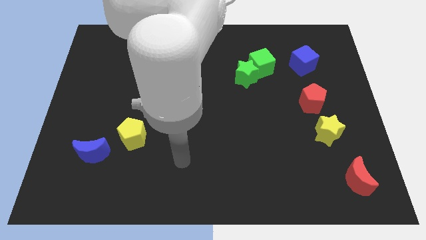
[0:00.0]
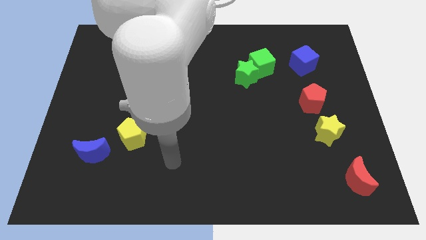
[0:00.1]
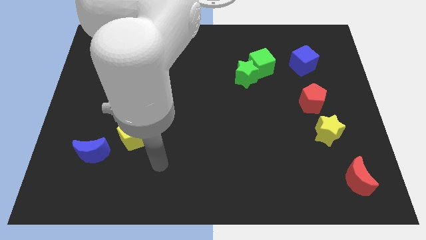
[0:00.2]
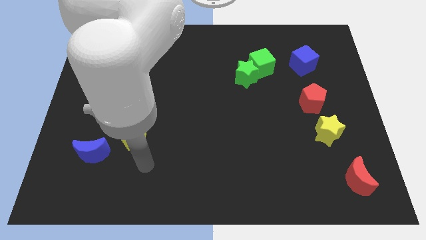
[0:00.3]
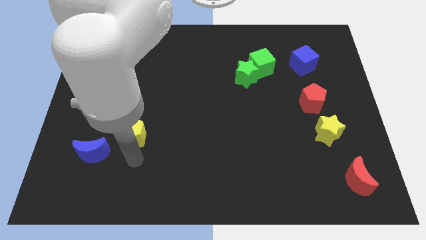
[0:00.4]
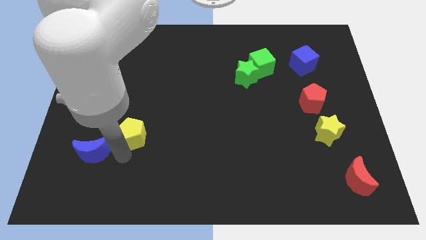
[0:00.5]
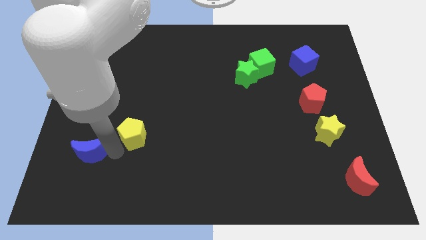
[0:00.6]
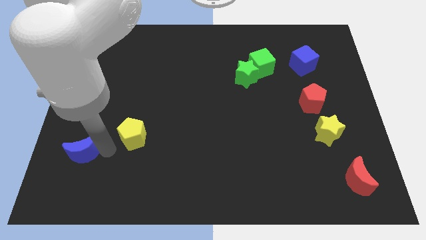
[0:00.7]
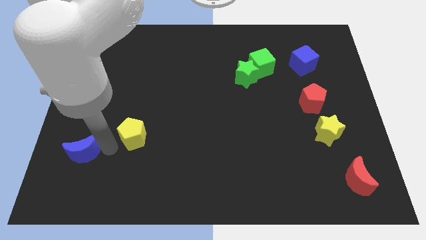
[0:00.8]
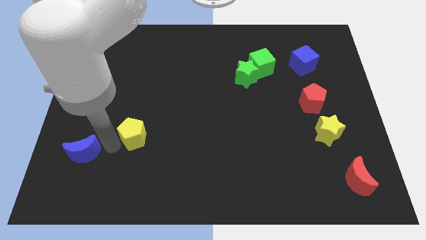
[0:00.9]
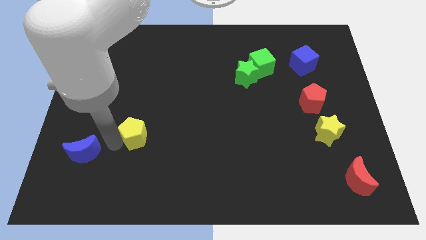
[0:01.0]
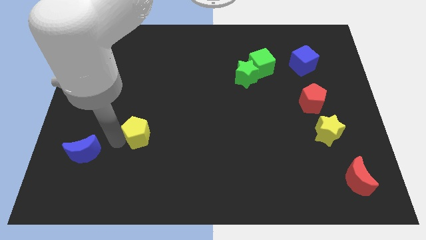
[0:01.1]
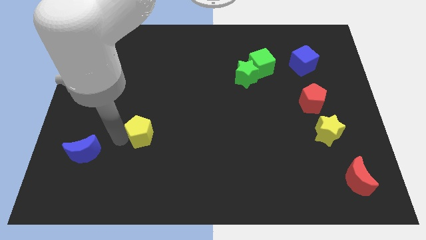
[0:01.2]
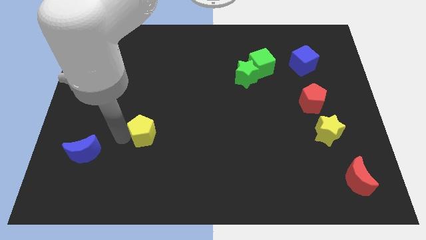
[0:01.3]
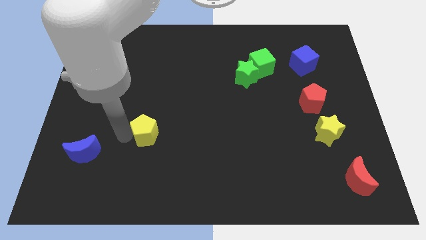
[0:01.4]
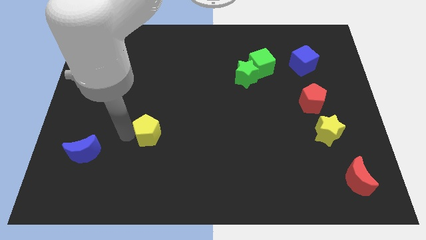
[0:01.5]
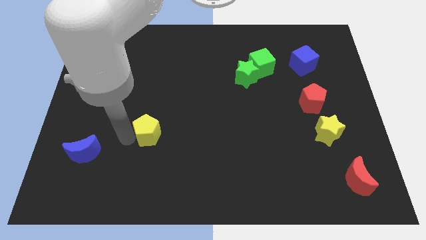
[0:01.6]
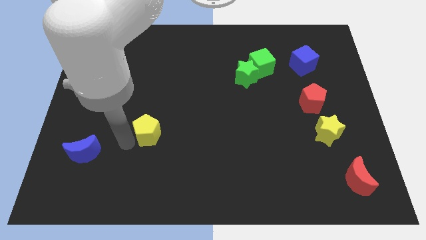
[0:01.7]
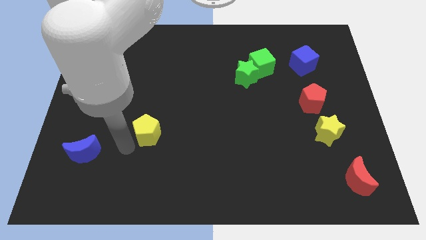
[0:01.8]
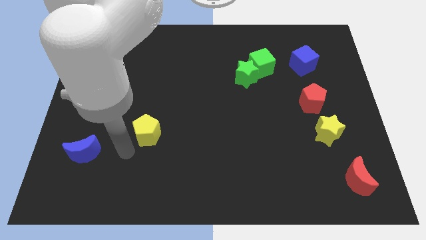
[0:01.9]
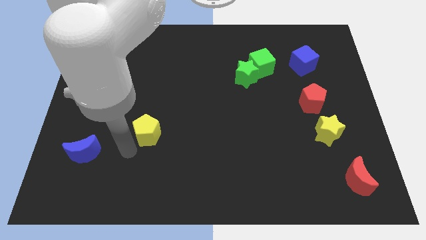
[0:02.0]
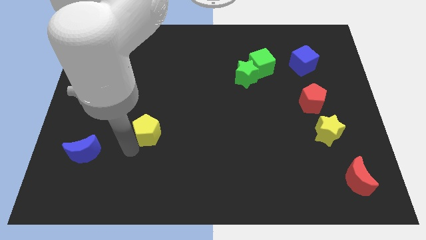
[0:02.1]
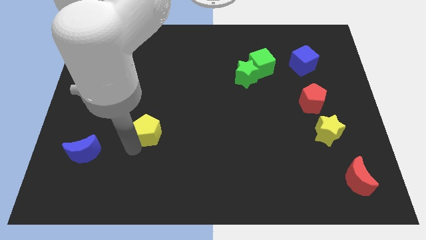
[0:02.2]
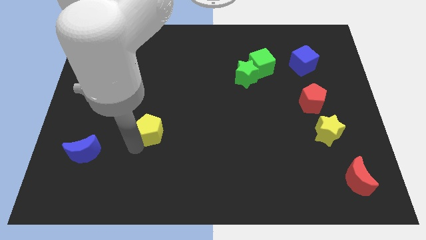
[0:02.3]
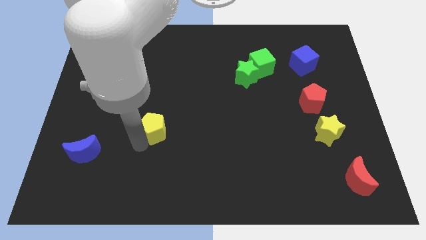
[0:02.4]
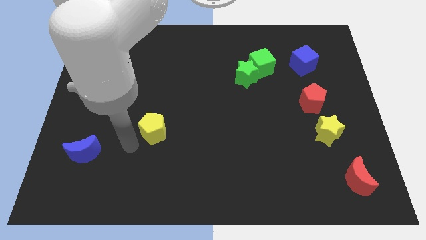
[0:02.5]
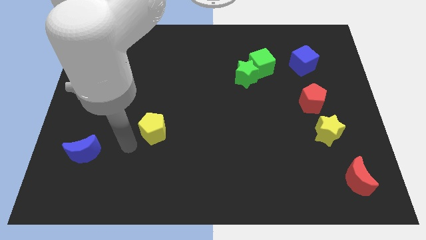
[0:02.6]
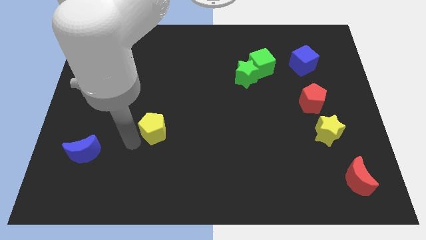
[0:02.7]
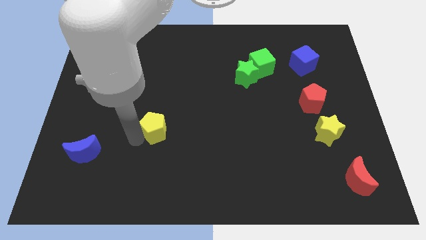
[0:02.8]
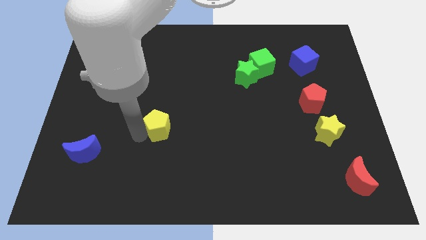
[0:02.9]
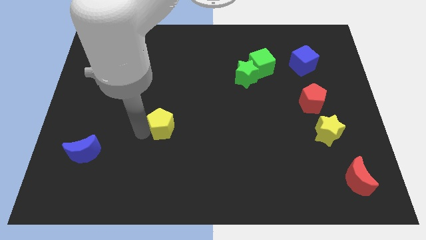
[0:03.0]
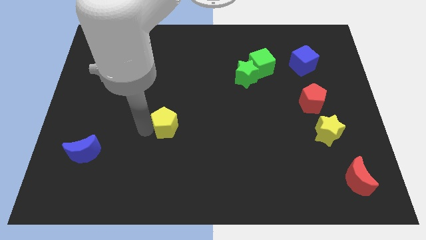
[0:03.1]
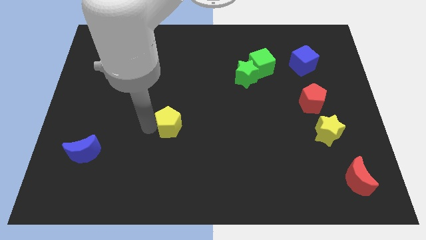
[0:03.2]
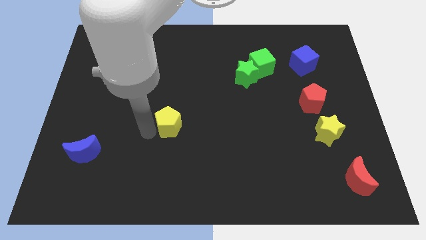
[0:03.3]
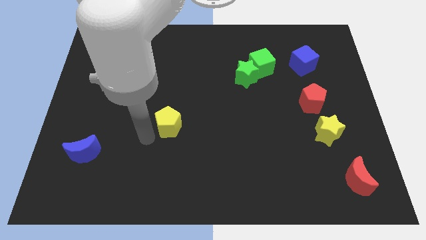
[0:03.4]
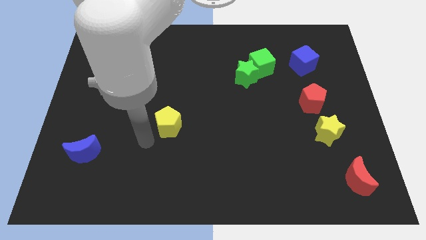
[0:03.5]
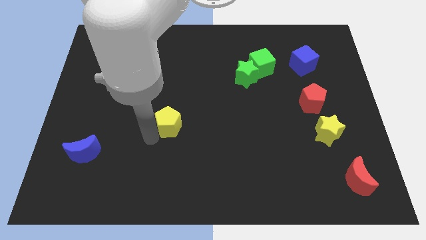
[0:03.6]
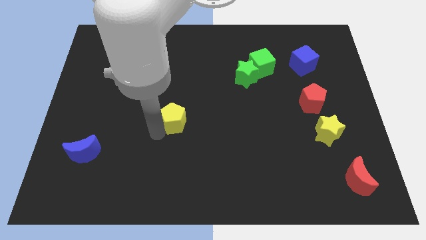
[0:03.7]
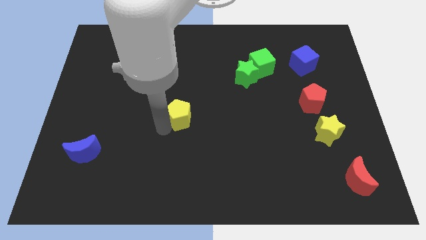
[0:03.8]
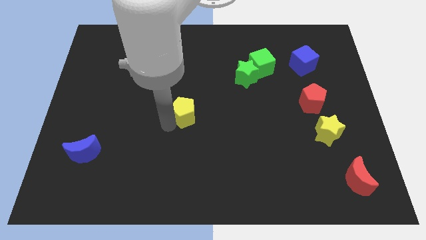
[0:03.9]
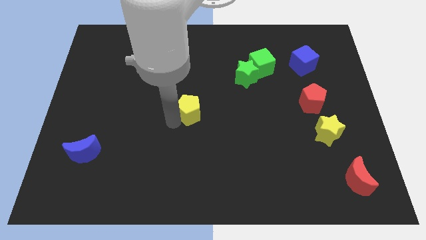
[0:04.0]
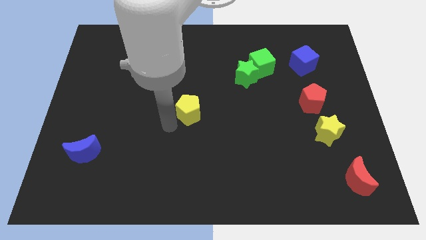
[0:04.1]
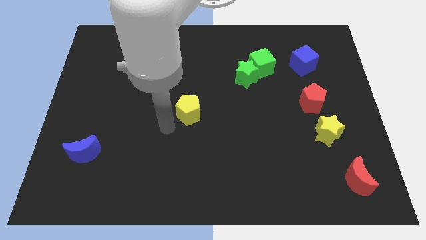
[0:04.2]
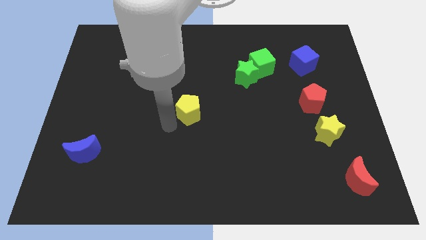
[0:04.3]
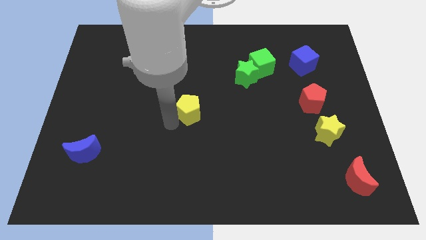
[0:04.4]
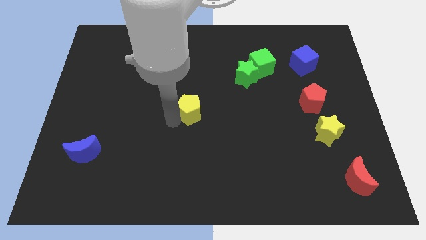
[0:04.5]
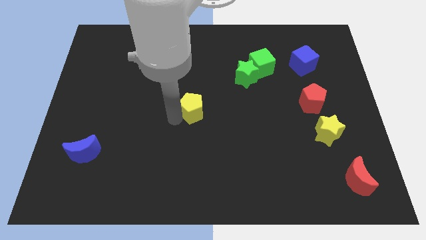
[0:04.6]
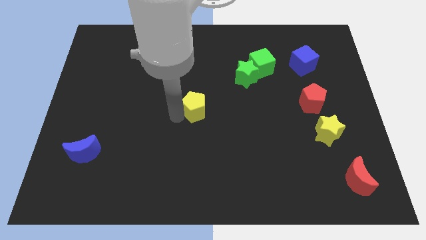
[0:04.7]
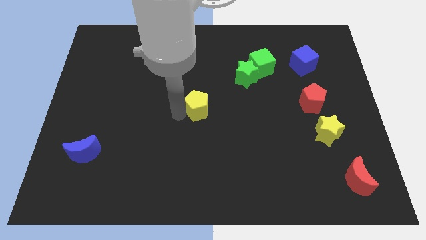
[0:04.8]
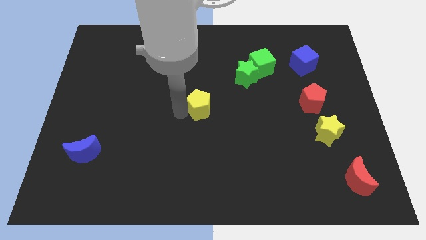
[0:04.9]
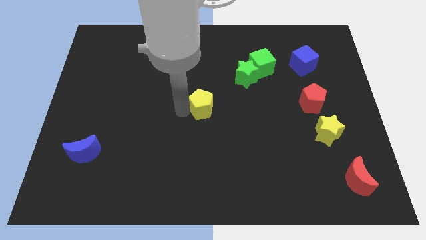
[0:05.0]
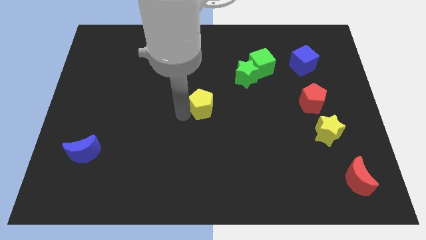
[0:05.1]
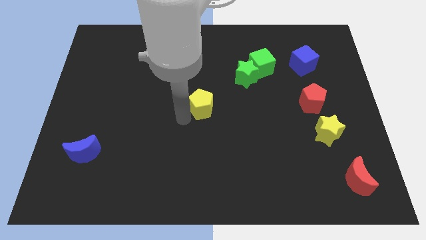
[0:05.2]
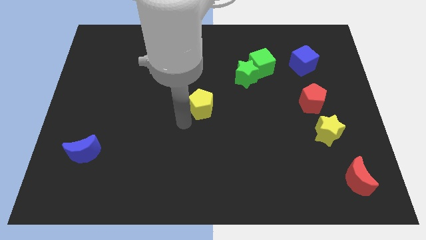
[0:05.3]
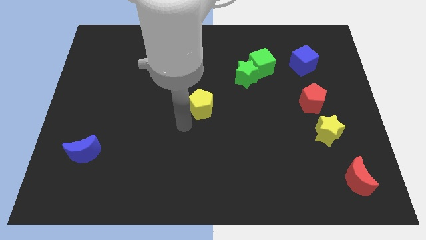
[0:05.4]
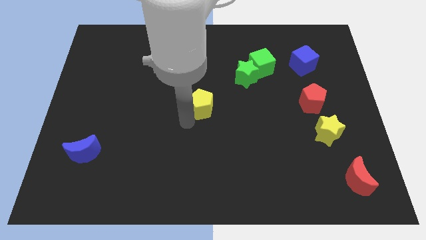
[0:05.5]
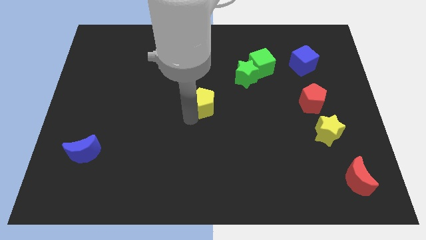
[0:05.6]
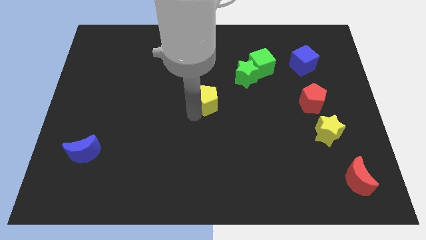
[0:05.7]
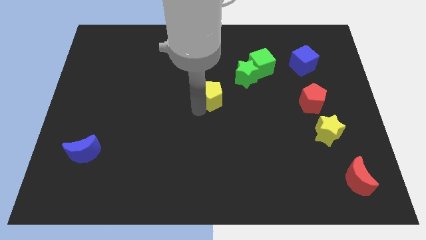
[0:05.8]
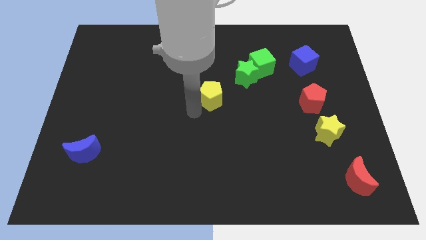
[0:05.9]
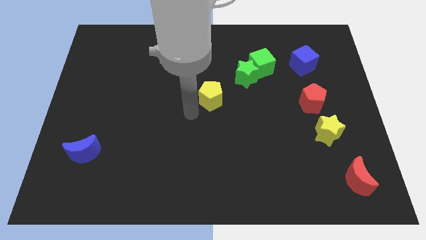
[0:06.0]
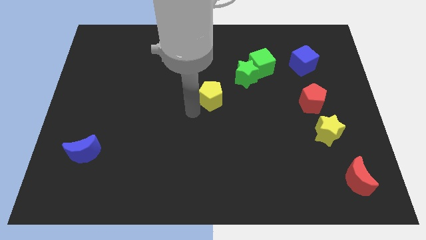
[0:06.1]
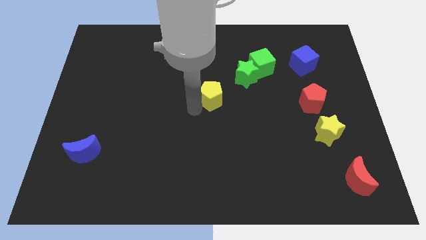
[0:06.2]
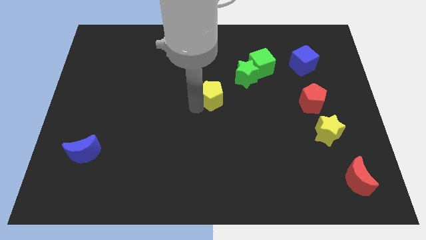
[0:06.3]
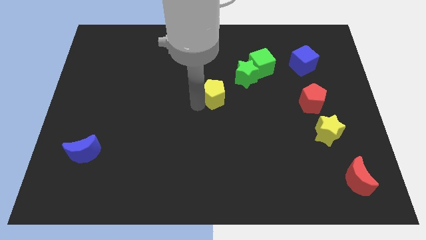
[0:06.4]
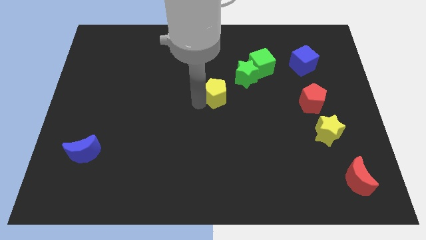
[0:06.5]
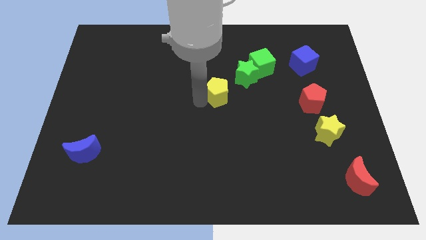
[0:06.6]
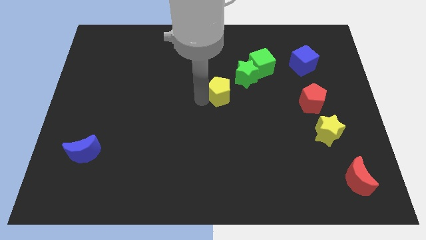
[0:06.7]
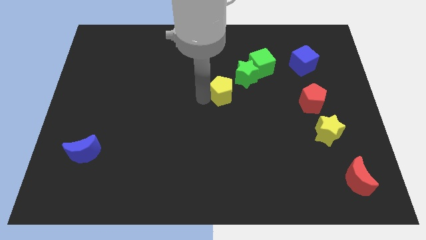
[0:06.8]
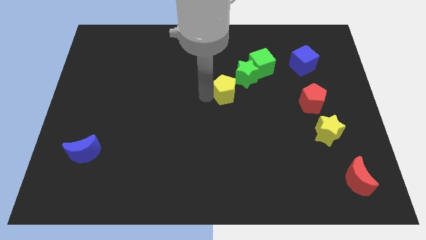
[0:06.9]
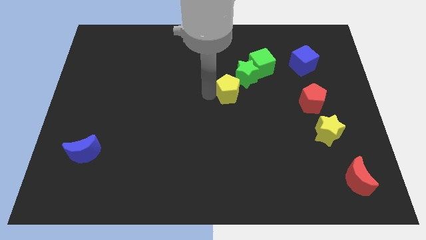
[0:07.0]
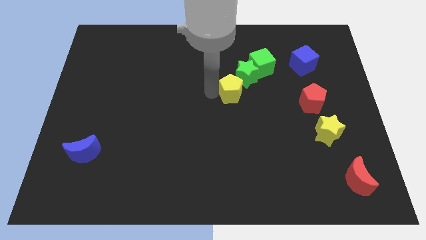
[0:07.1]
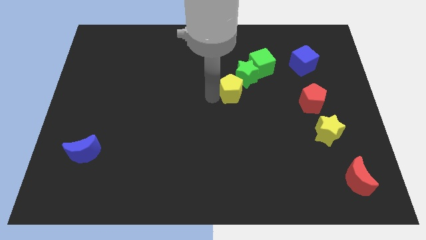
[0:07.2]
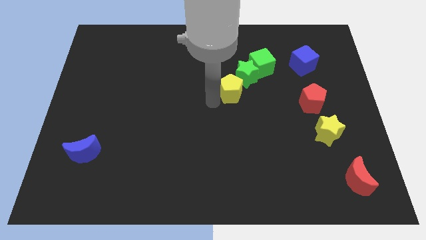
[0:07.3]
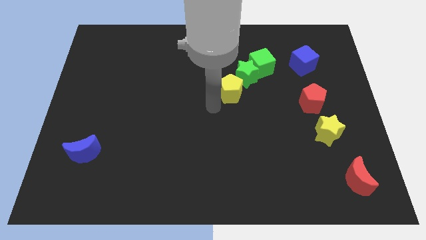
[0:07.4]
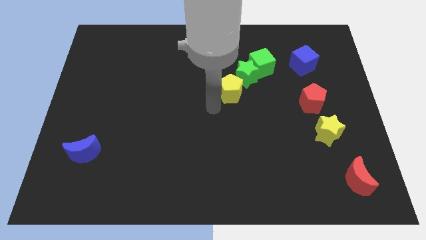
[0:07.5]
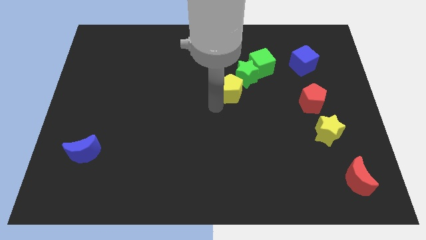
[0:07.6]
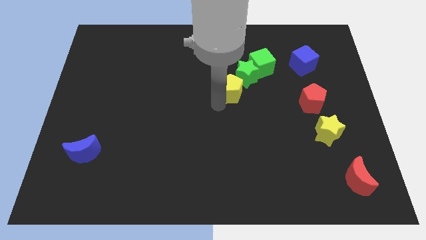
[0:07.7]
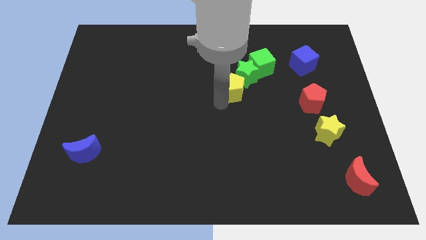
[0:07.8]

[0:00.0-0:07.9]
push the yellow pentagon towards the green star
